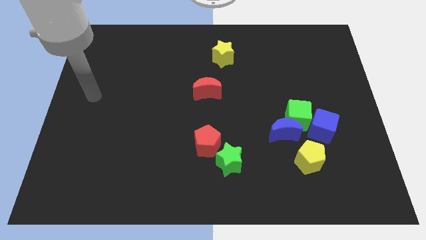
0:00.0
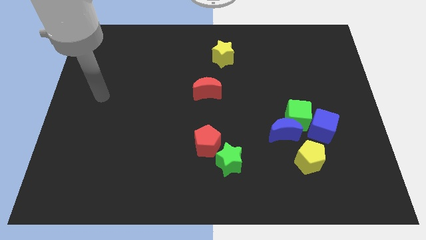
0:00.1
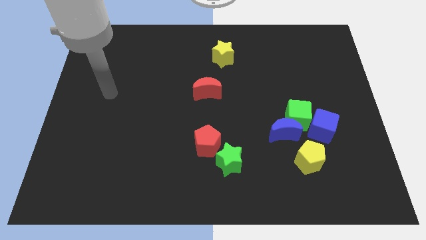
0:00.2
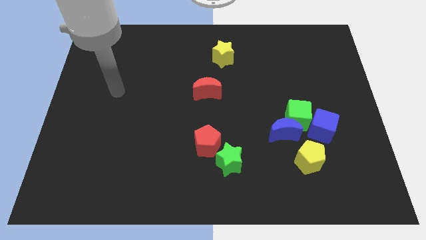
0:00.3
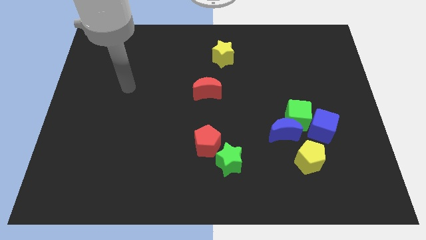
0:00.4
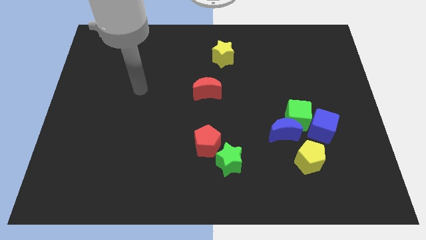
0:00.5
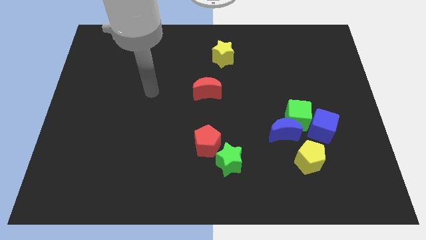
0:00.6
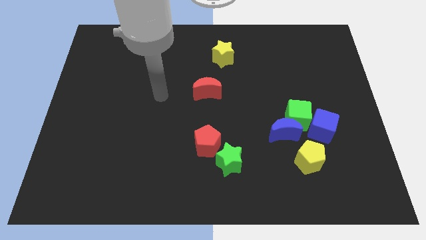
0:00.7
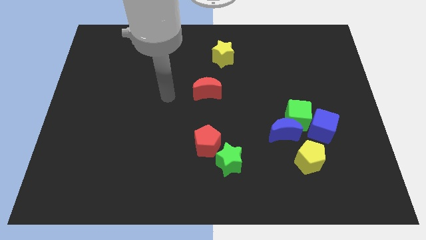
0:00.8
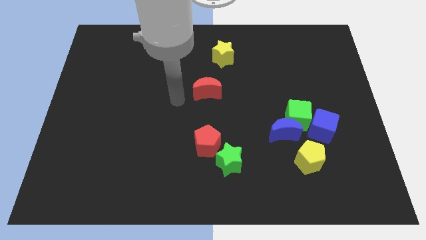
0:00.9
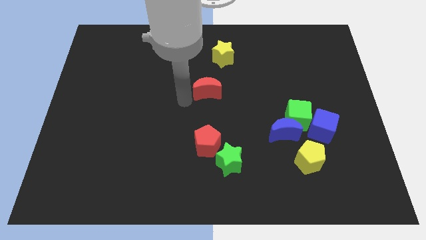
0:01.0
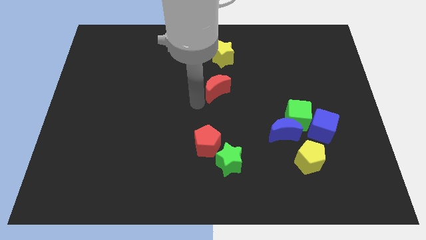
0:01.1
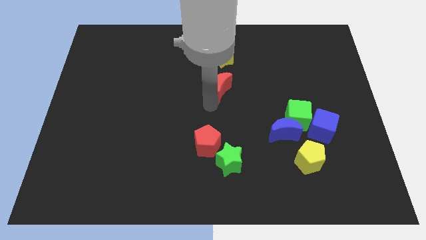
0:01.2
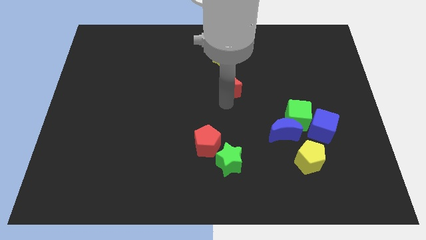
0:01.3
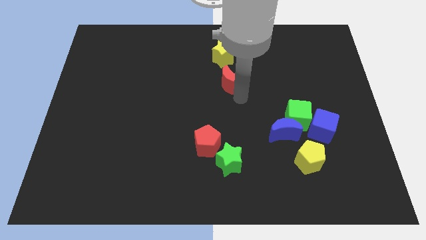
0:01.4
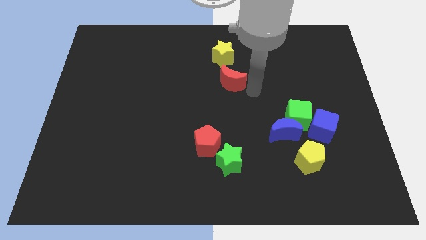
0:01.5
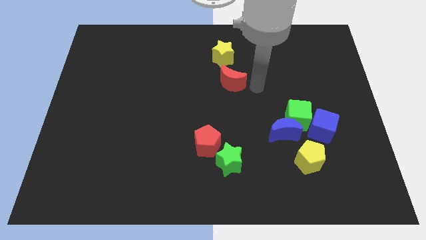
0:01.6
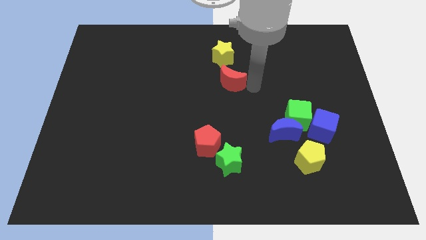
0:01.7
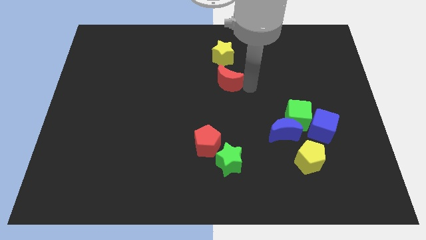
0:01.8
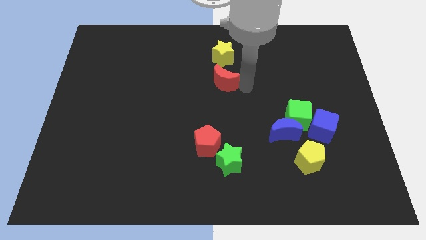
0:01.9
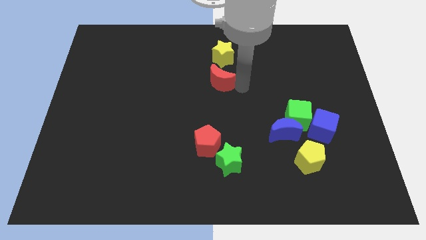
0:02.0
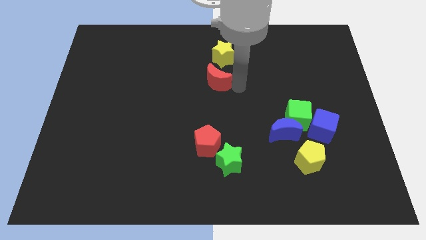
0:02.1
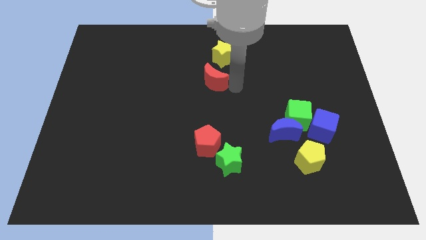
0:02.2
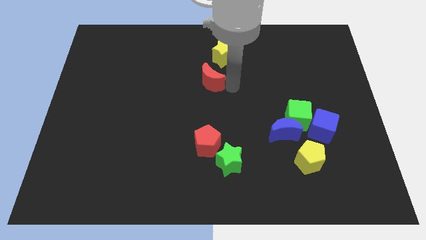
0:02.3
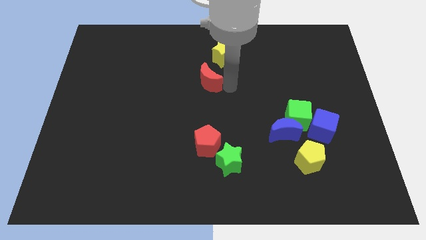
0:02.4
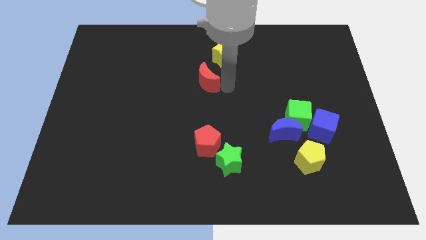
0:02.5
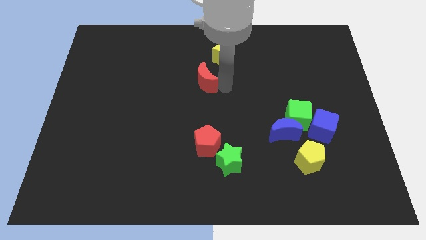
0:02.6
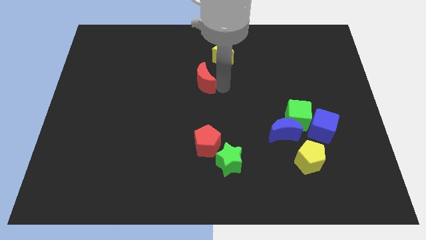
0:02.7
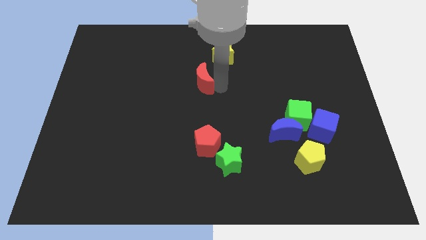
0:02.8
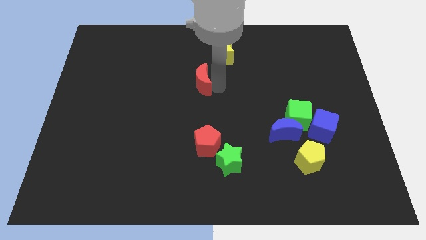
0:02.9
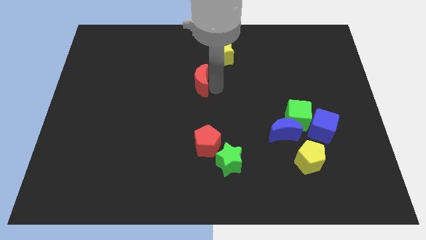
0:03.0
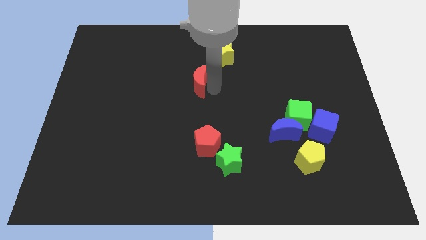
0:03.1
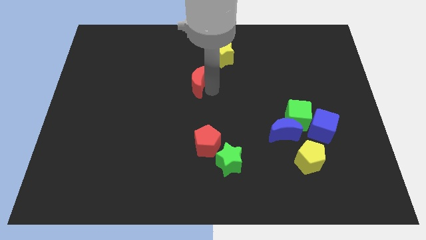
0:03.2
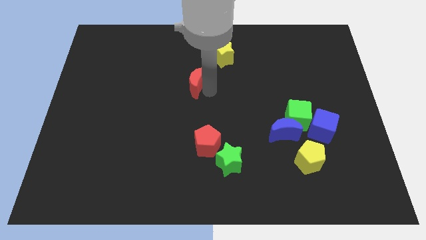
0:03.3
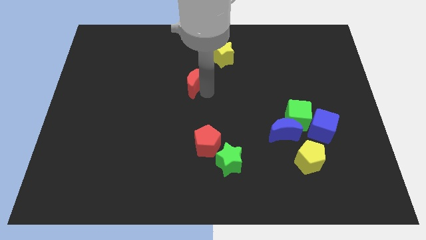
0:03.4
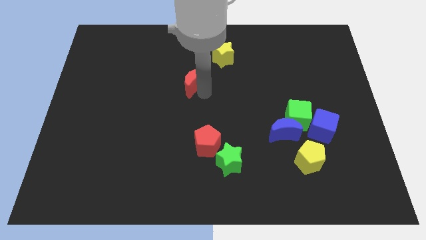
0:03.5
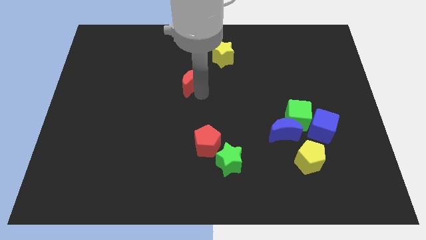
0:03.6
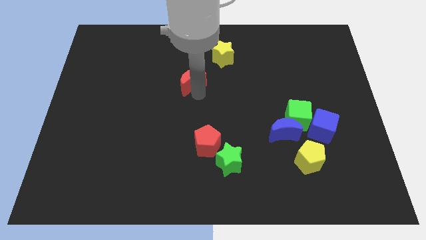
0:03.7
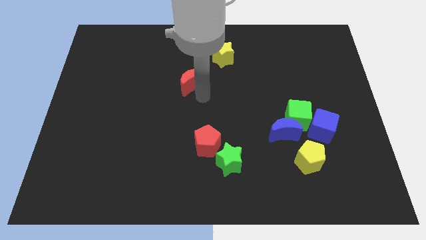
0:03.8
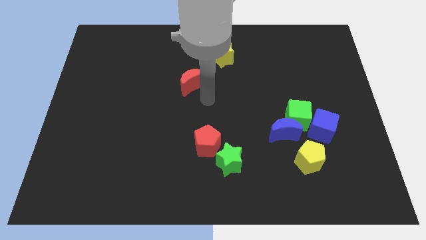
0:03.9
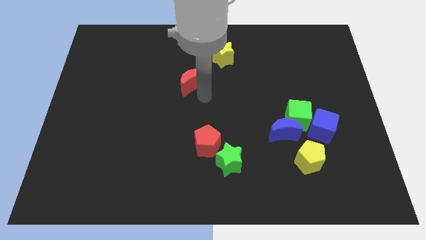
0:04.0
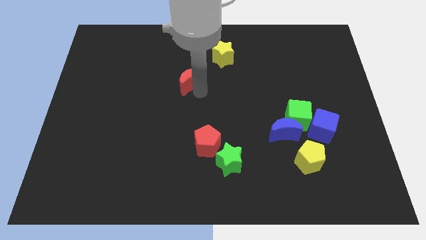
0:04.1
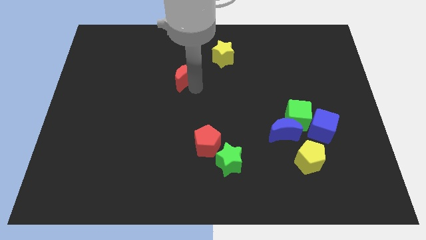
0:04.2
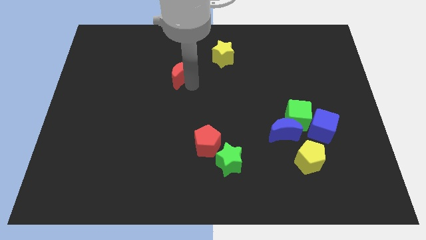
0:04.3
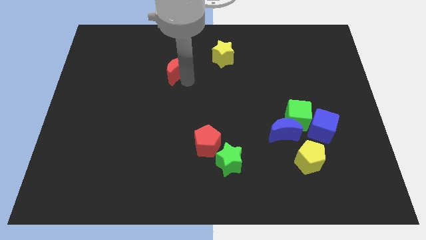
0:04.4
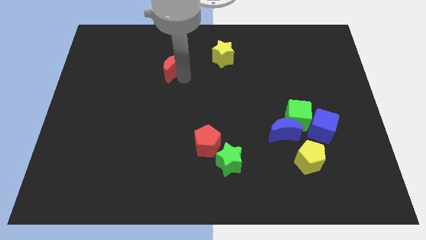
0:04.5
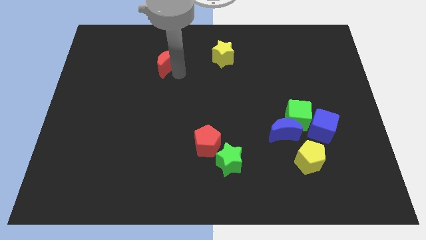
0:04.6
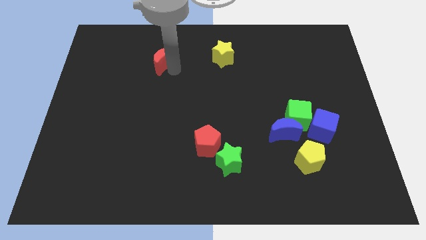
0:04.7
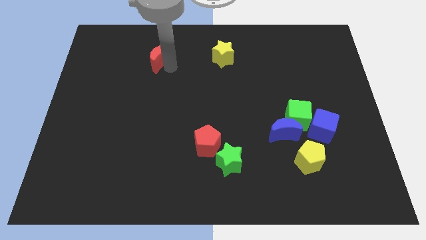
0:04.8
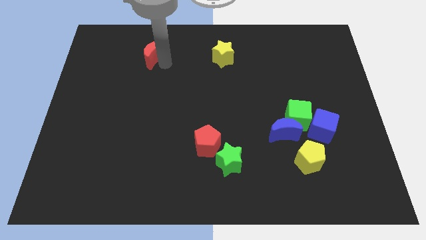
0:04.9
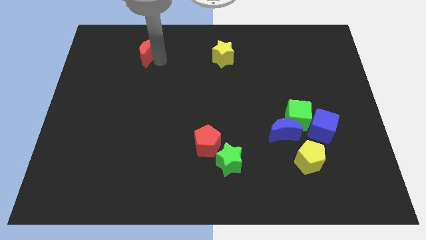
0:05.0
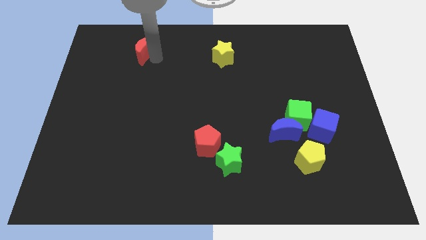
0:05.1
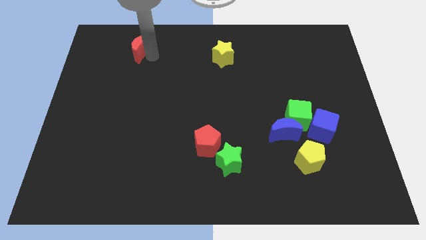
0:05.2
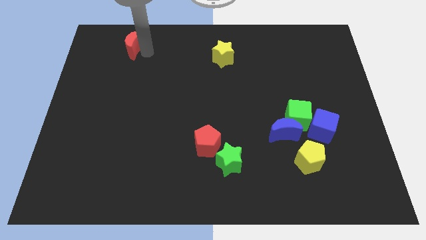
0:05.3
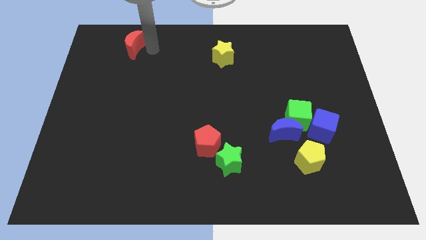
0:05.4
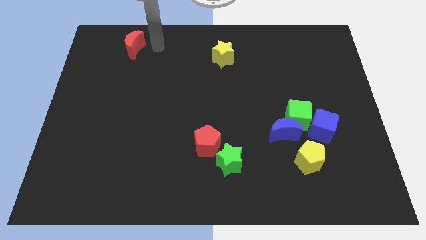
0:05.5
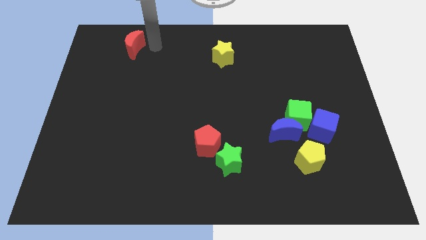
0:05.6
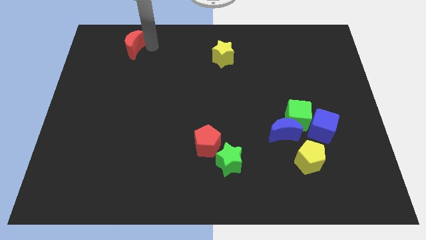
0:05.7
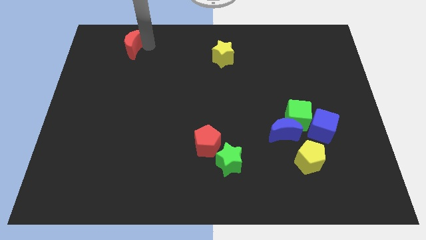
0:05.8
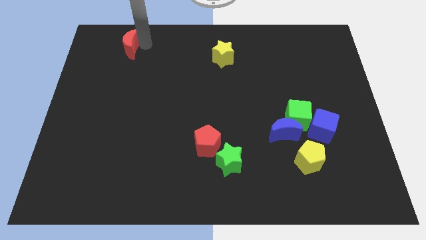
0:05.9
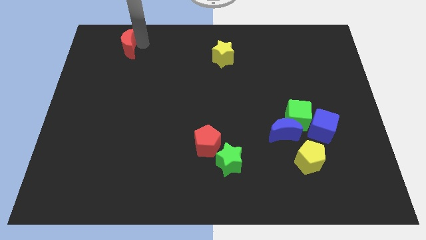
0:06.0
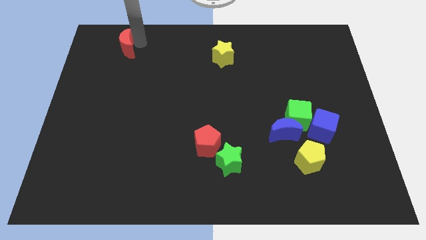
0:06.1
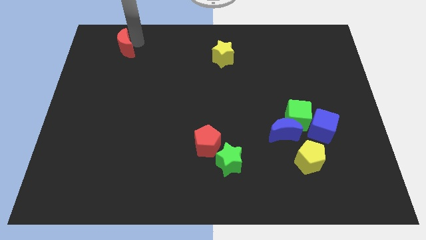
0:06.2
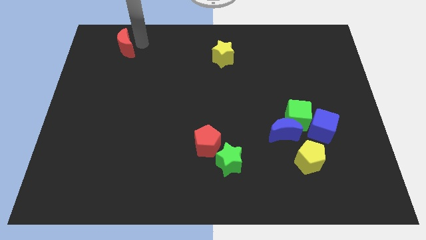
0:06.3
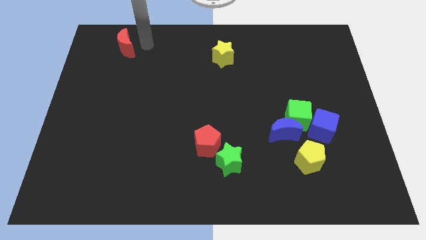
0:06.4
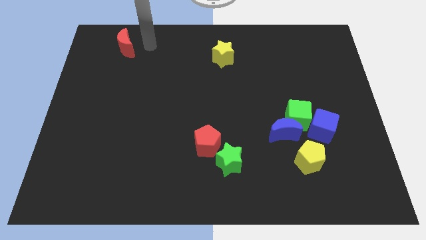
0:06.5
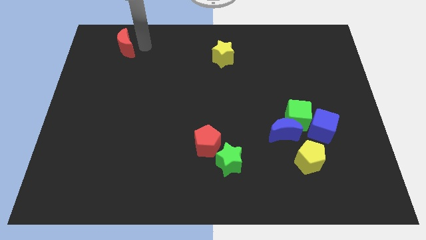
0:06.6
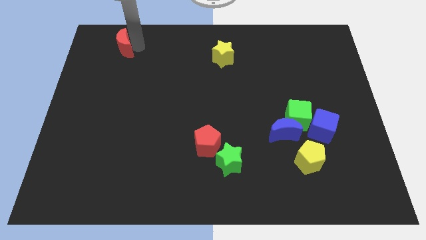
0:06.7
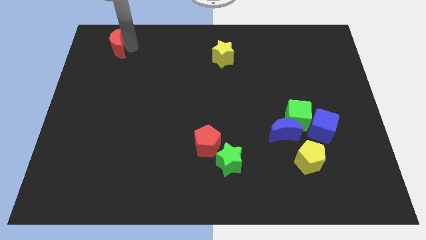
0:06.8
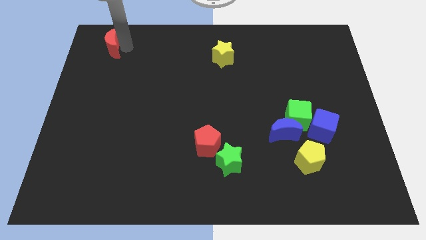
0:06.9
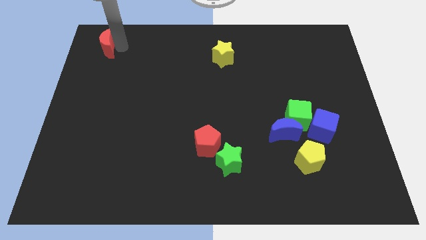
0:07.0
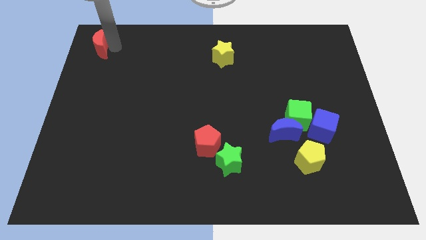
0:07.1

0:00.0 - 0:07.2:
push the red moon to the top left of the board
